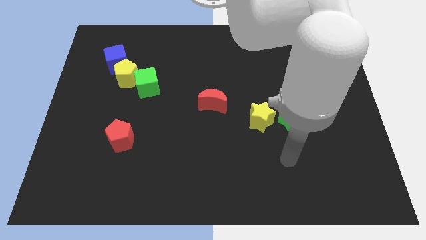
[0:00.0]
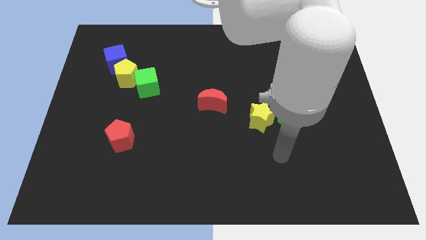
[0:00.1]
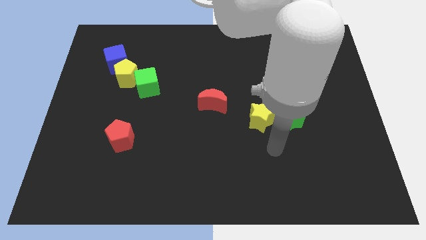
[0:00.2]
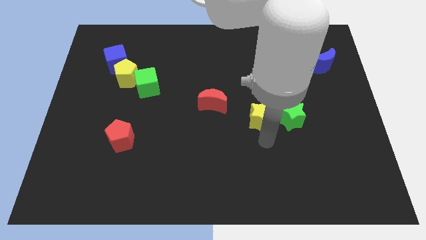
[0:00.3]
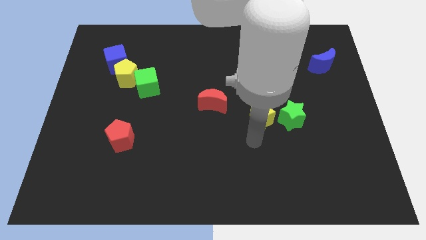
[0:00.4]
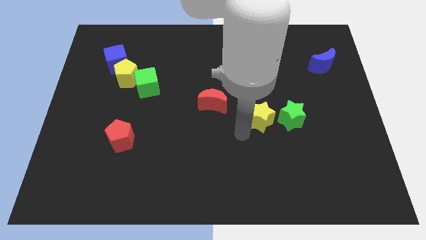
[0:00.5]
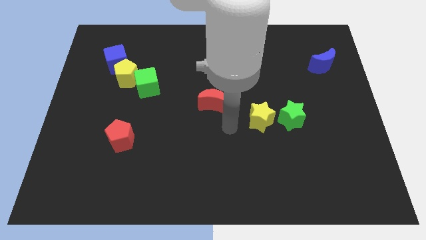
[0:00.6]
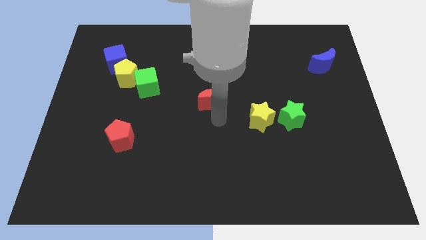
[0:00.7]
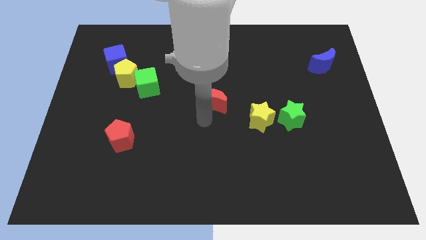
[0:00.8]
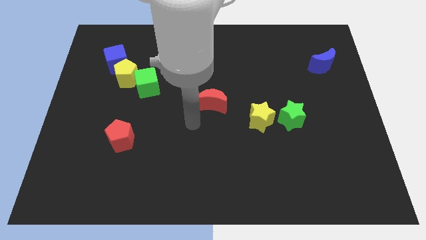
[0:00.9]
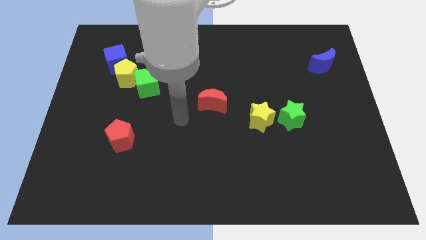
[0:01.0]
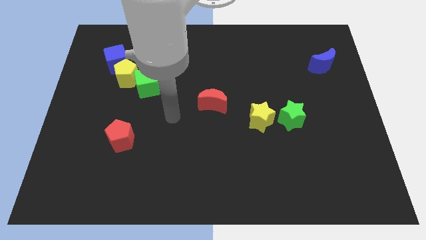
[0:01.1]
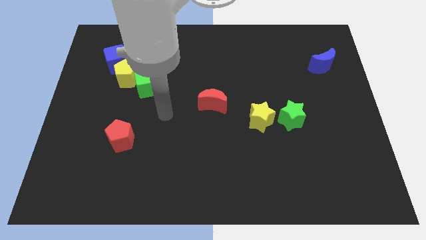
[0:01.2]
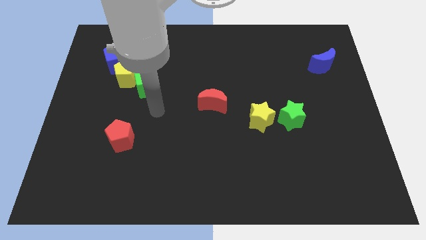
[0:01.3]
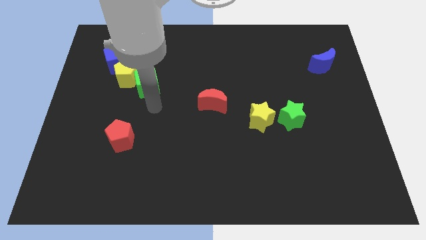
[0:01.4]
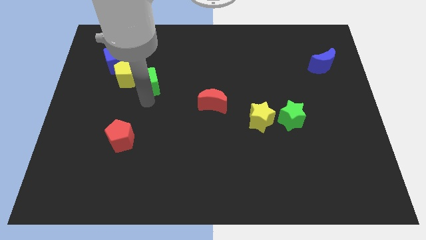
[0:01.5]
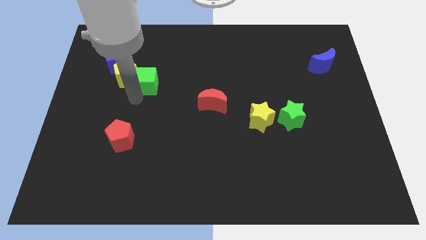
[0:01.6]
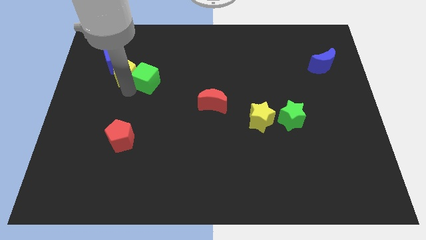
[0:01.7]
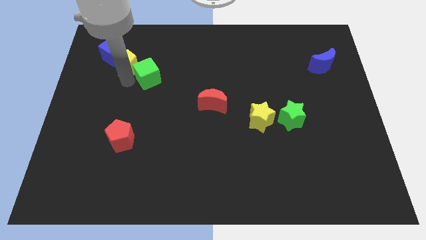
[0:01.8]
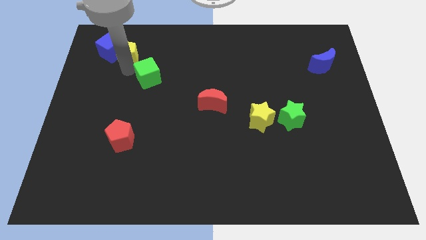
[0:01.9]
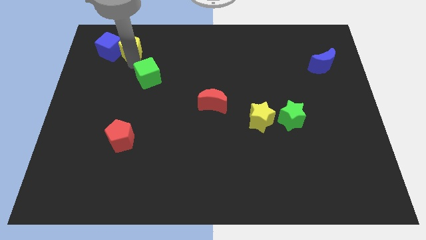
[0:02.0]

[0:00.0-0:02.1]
move the green cube away from the yellow pentagon

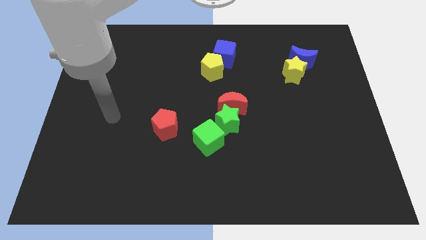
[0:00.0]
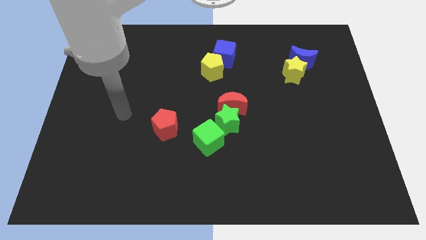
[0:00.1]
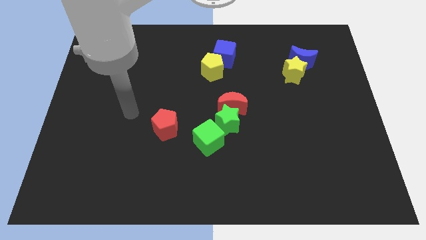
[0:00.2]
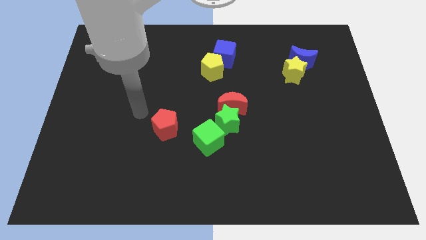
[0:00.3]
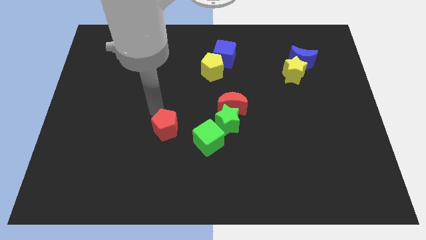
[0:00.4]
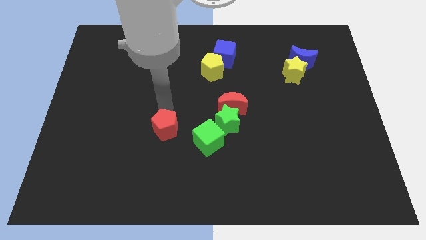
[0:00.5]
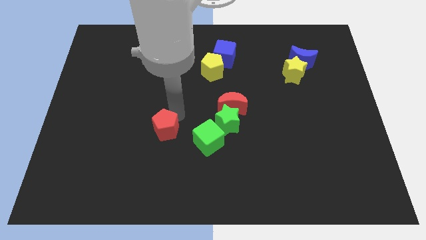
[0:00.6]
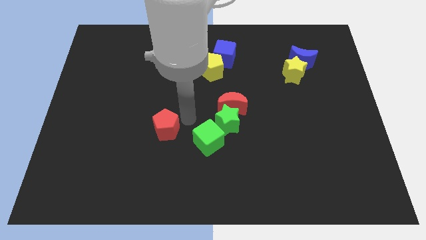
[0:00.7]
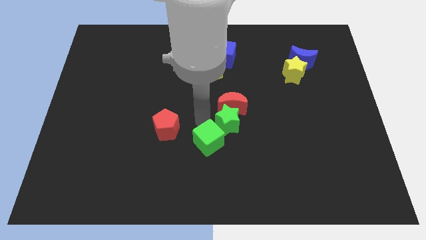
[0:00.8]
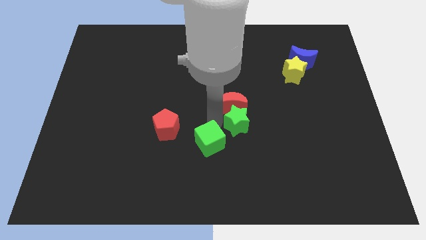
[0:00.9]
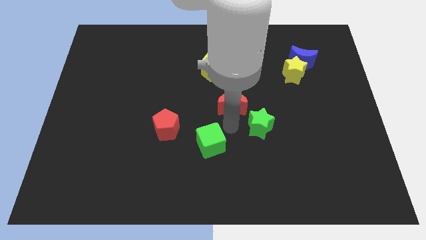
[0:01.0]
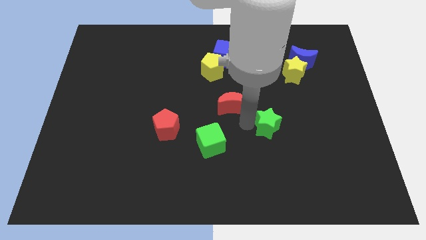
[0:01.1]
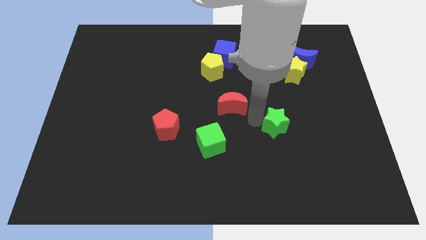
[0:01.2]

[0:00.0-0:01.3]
move the red moon away from the green star

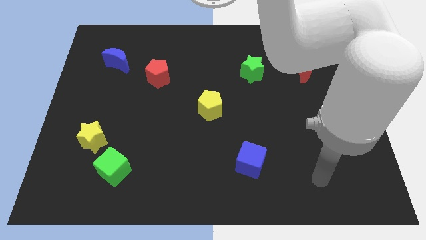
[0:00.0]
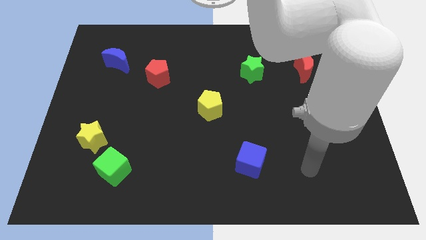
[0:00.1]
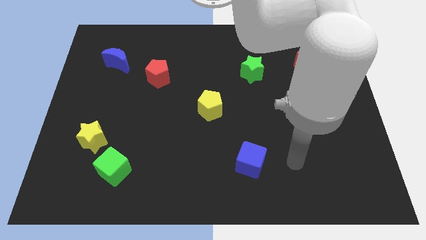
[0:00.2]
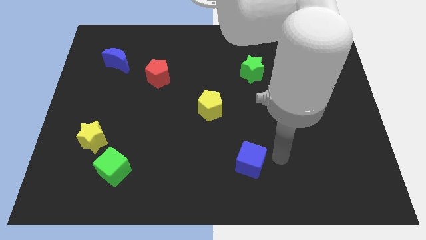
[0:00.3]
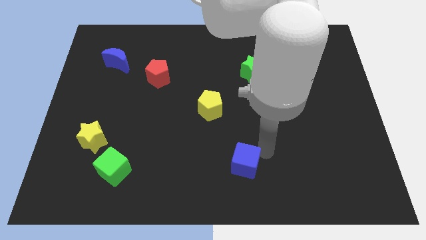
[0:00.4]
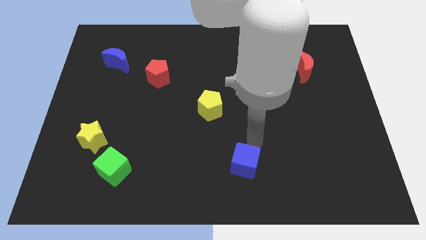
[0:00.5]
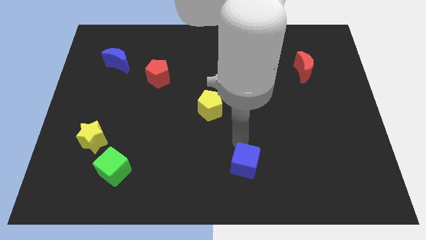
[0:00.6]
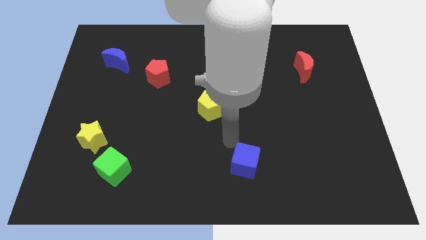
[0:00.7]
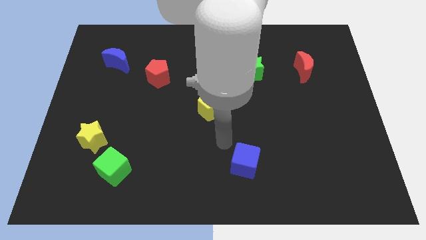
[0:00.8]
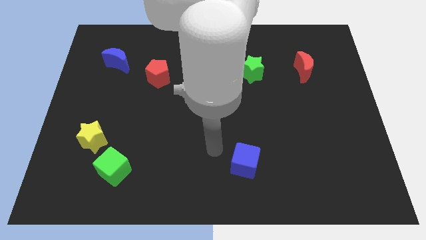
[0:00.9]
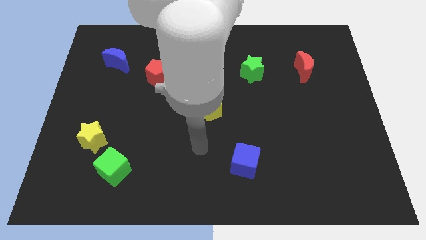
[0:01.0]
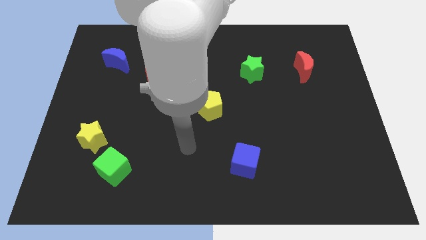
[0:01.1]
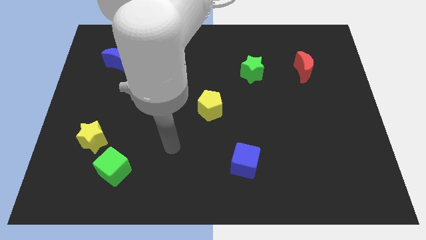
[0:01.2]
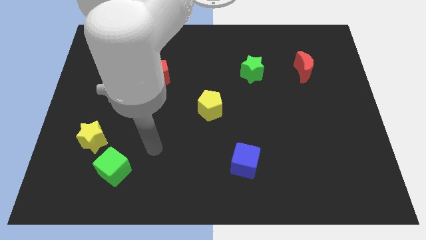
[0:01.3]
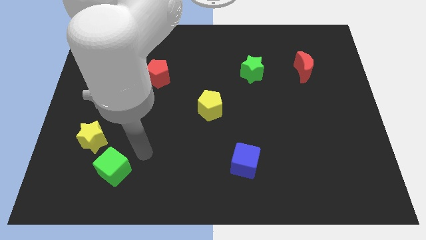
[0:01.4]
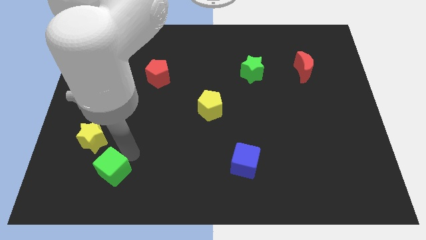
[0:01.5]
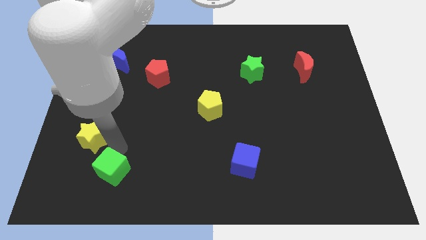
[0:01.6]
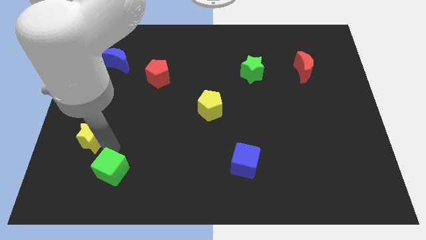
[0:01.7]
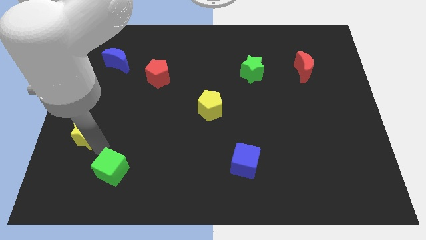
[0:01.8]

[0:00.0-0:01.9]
move the green cube away from the yellow star

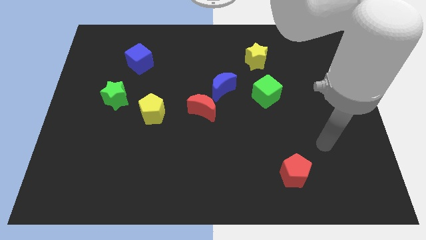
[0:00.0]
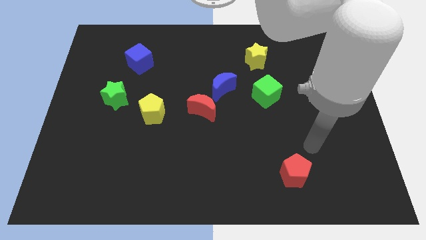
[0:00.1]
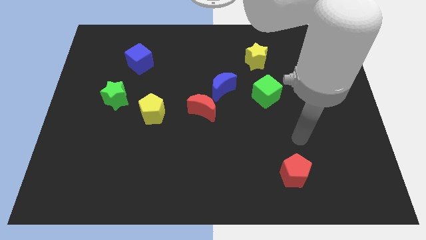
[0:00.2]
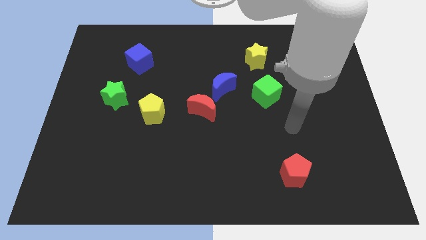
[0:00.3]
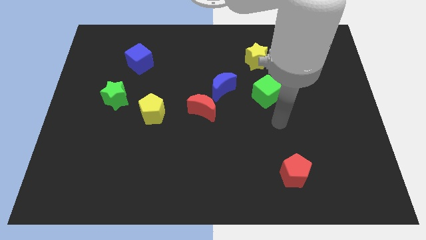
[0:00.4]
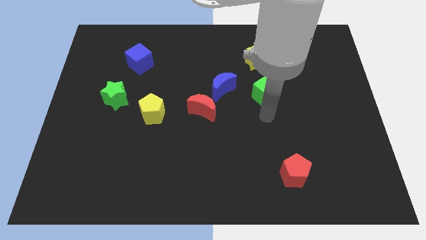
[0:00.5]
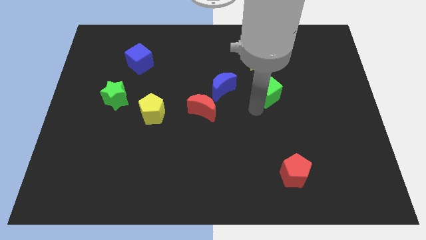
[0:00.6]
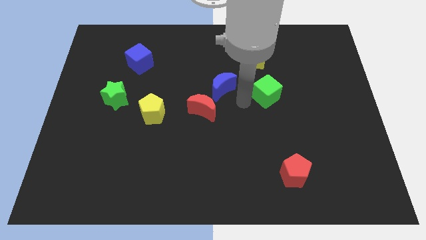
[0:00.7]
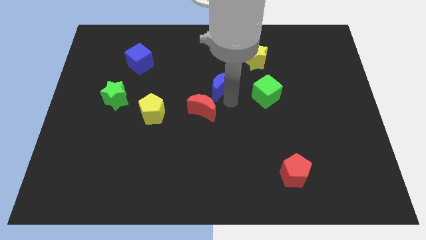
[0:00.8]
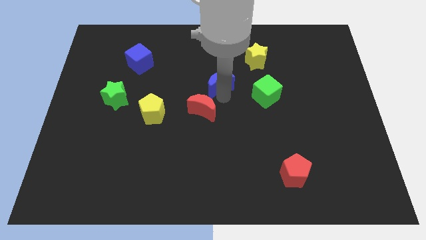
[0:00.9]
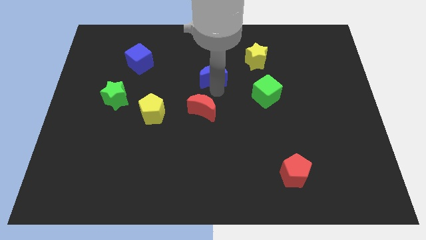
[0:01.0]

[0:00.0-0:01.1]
move the red moon away from the blue moon

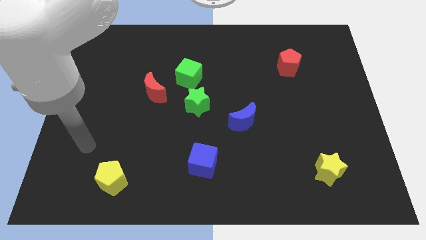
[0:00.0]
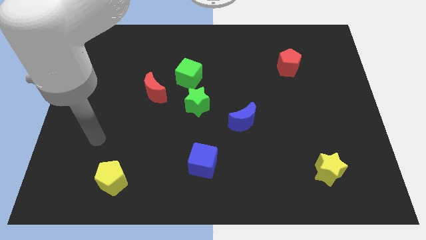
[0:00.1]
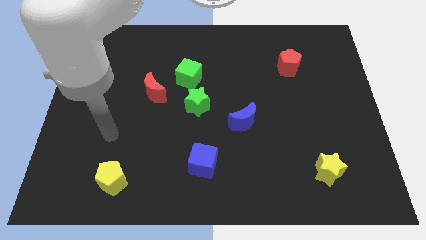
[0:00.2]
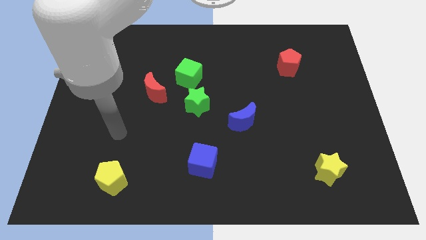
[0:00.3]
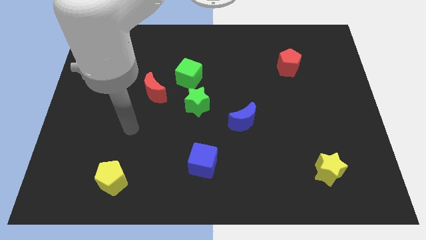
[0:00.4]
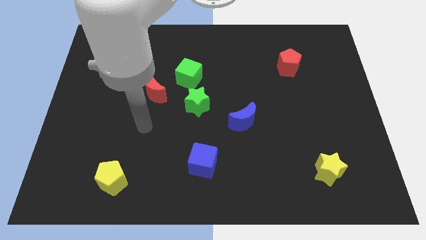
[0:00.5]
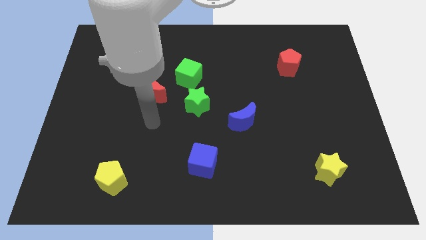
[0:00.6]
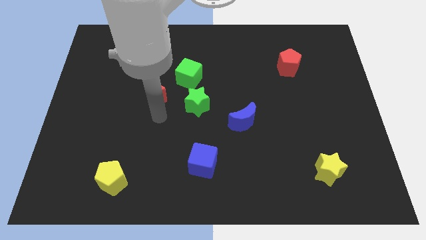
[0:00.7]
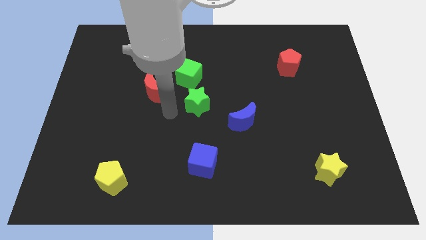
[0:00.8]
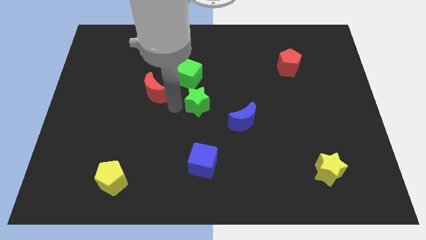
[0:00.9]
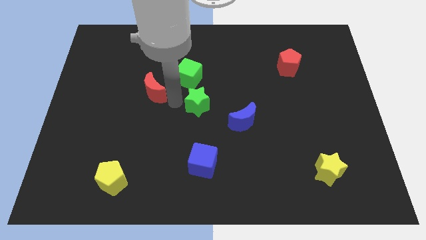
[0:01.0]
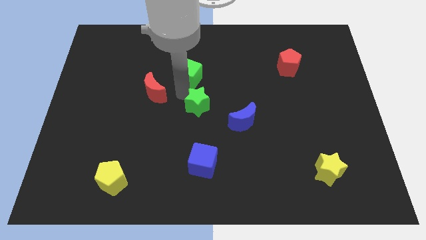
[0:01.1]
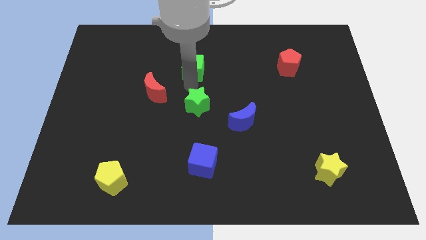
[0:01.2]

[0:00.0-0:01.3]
separate the green star from the green cube

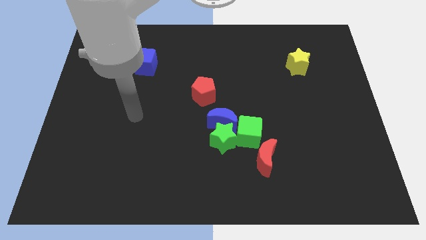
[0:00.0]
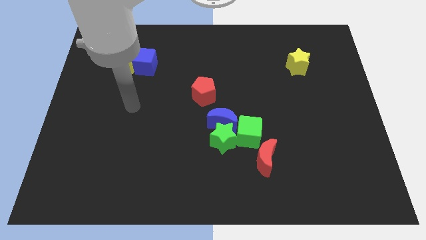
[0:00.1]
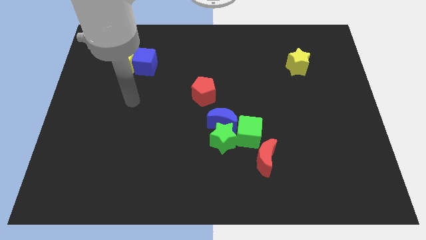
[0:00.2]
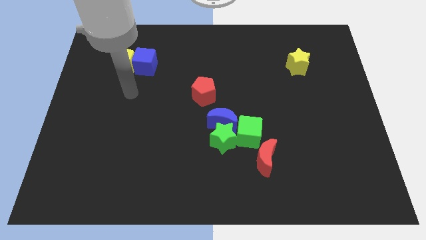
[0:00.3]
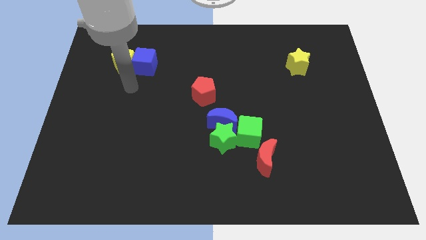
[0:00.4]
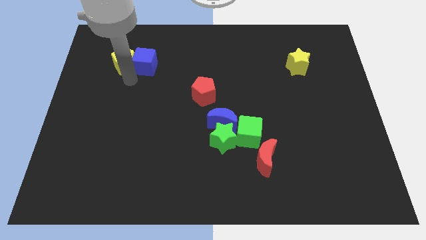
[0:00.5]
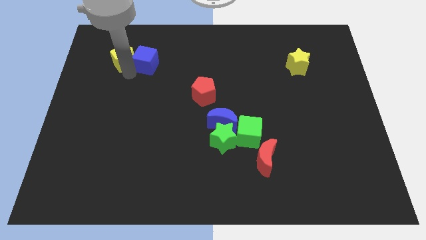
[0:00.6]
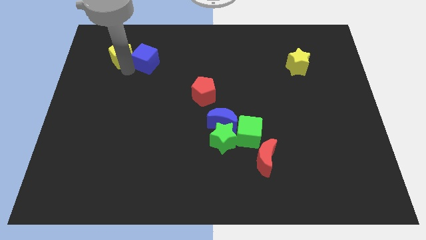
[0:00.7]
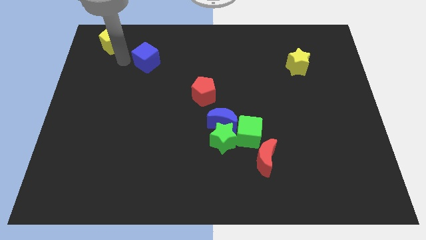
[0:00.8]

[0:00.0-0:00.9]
move the blue cube away from the yellow pentagon

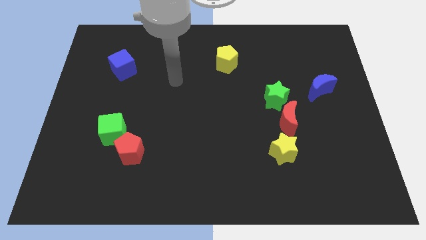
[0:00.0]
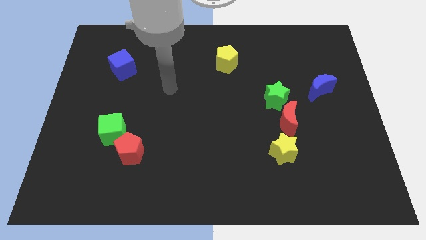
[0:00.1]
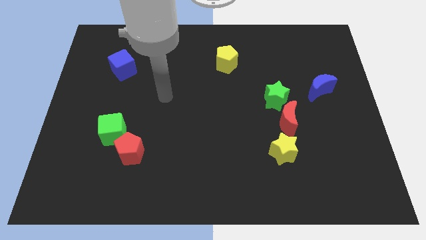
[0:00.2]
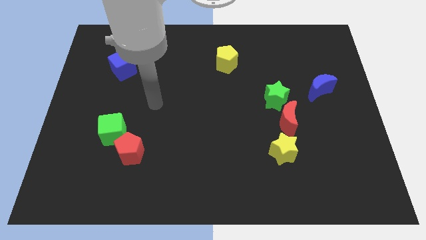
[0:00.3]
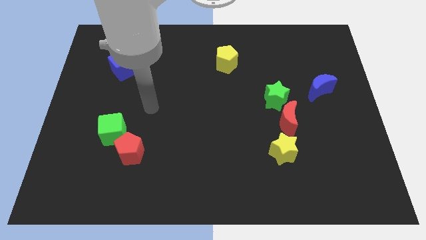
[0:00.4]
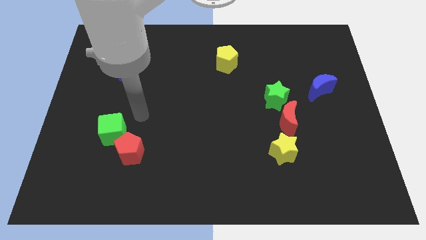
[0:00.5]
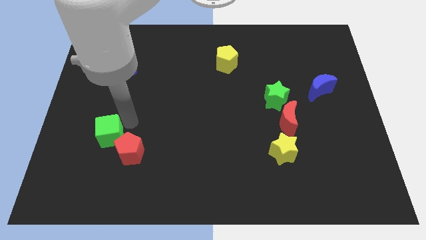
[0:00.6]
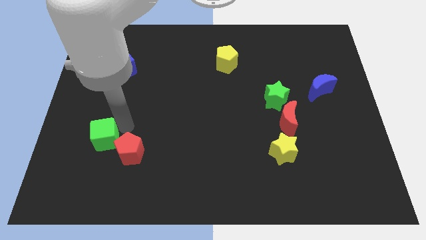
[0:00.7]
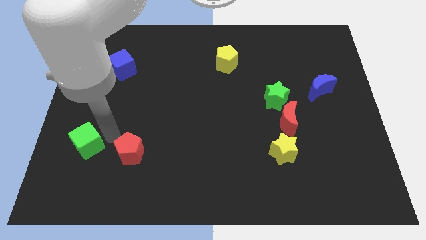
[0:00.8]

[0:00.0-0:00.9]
pull the red pentagon apart from the green cube
